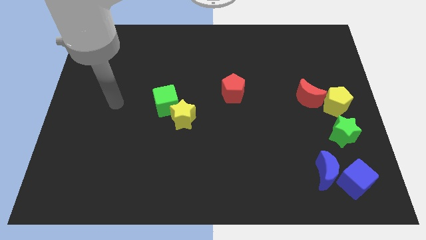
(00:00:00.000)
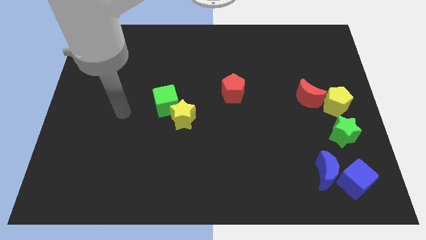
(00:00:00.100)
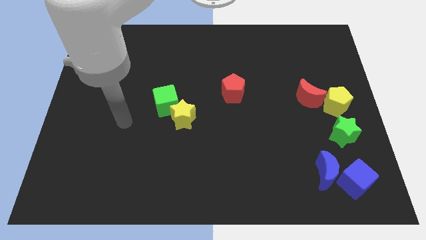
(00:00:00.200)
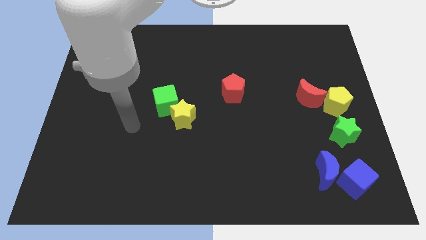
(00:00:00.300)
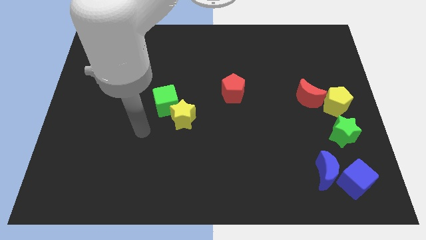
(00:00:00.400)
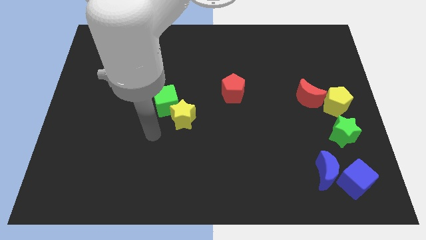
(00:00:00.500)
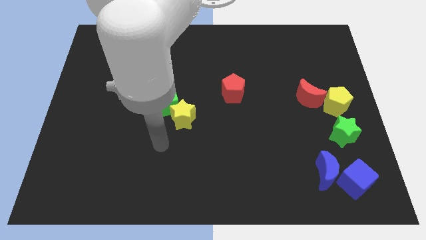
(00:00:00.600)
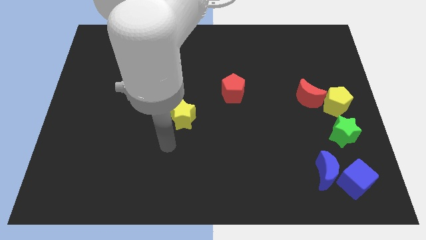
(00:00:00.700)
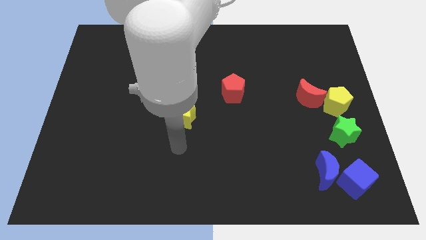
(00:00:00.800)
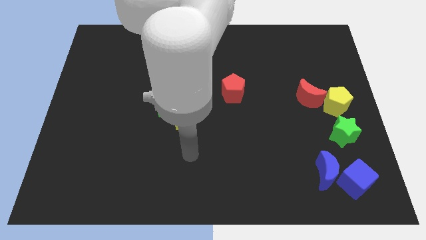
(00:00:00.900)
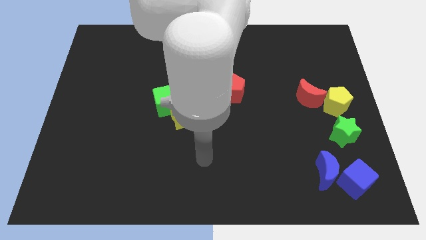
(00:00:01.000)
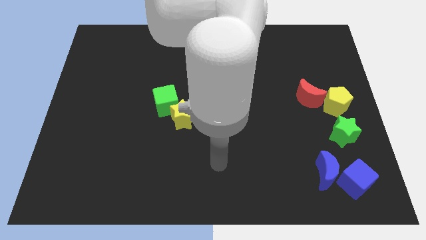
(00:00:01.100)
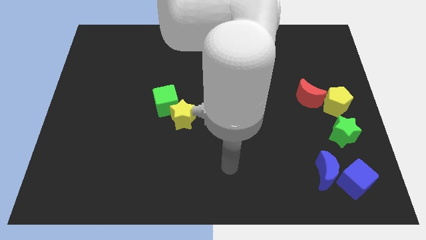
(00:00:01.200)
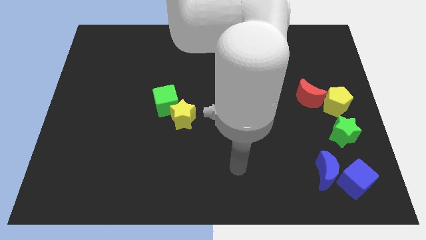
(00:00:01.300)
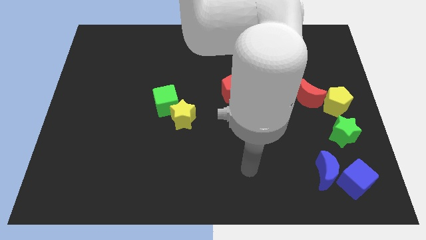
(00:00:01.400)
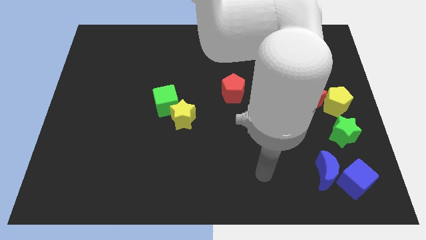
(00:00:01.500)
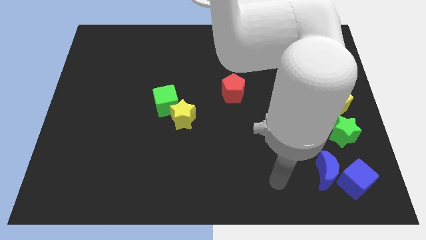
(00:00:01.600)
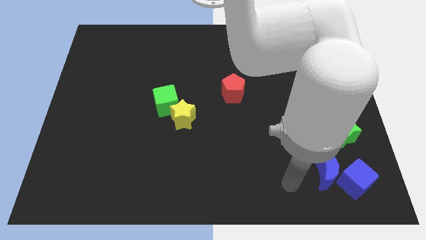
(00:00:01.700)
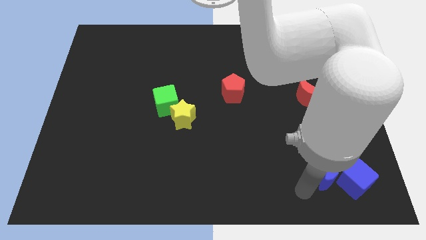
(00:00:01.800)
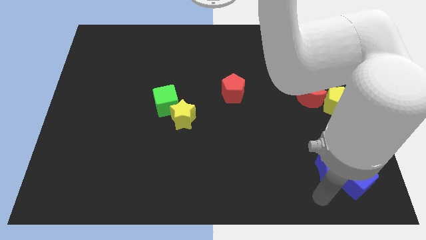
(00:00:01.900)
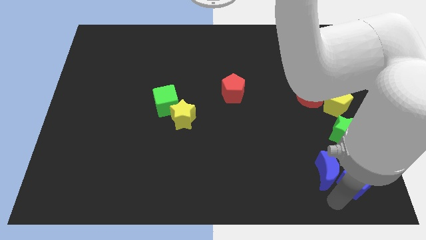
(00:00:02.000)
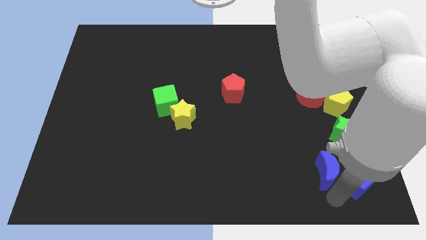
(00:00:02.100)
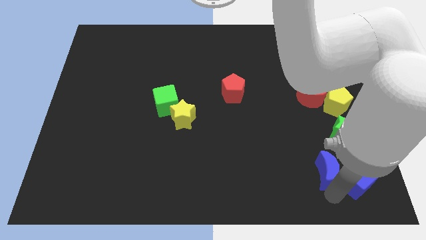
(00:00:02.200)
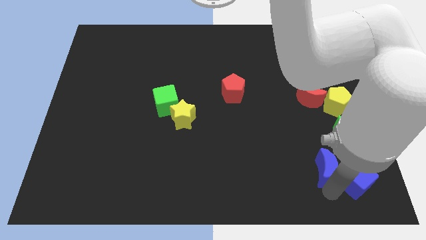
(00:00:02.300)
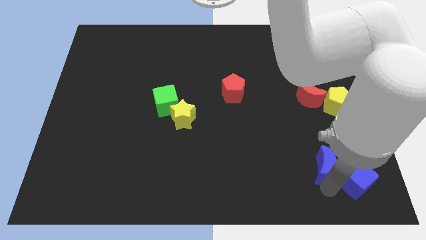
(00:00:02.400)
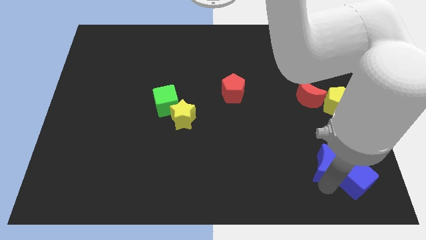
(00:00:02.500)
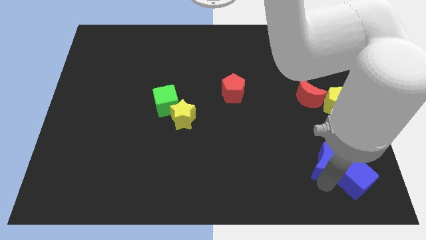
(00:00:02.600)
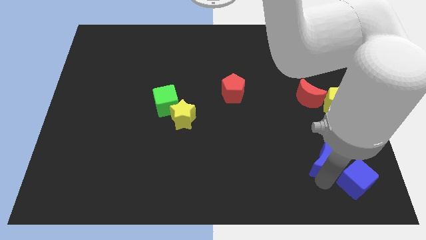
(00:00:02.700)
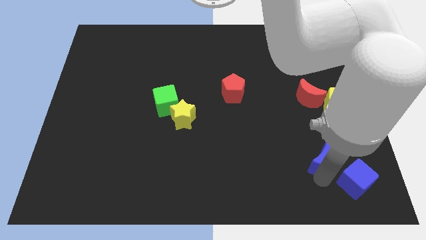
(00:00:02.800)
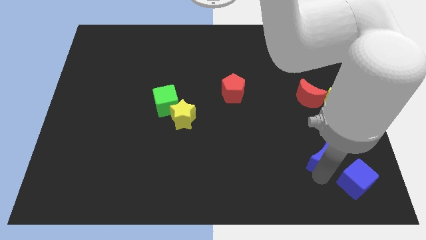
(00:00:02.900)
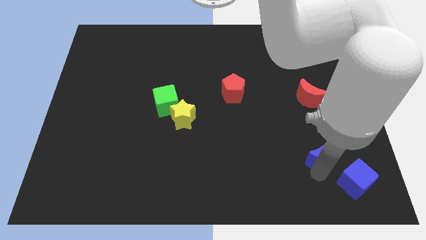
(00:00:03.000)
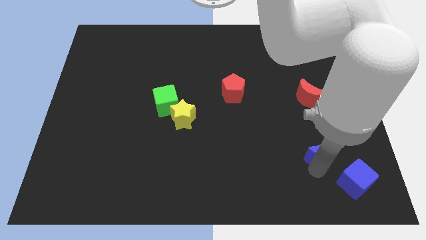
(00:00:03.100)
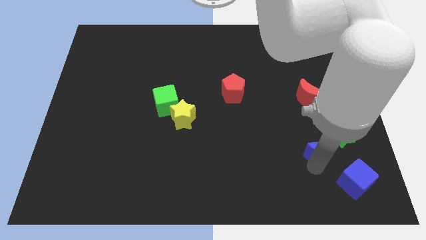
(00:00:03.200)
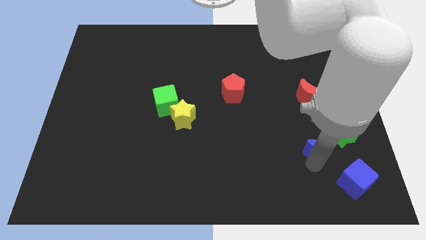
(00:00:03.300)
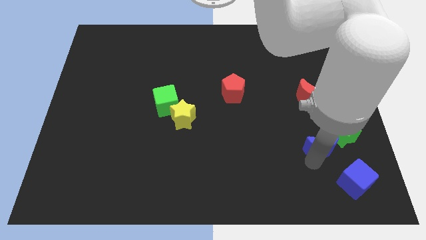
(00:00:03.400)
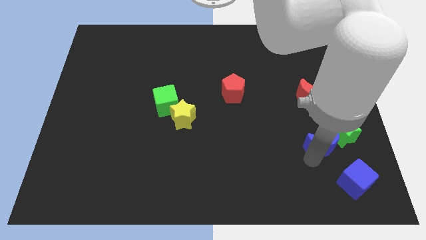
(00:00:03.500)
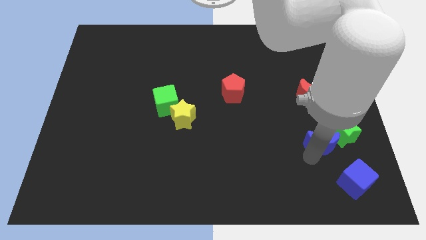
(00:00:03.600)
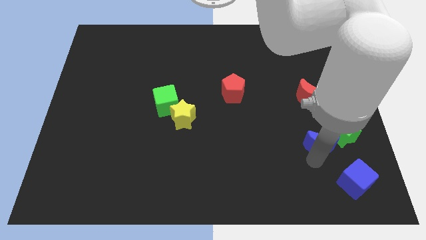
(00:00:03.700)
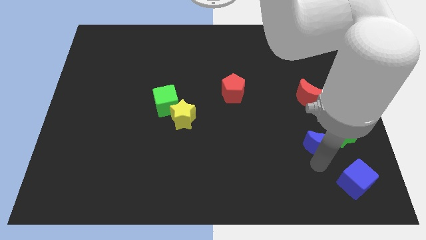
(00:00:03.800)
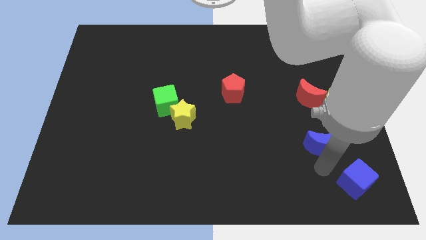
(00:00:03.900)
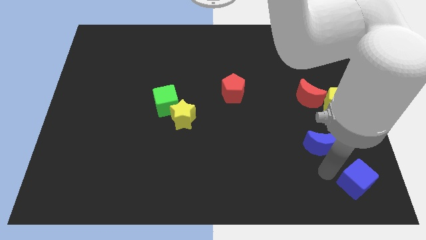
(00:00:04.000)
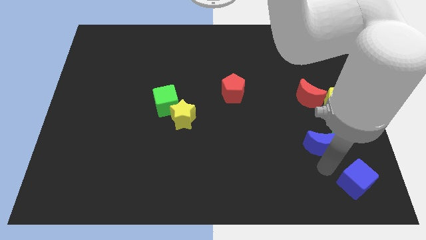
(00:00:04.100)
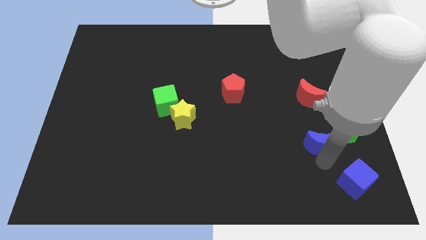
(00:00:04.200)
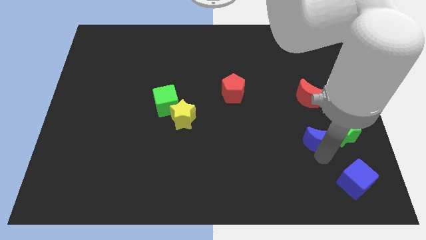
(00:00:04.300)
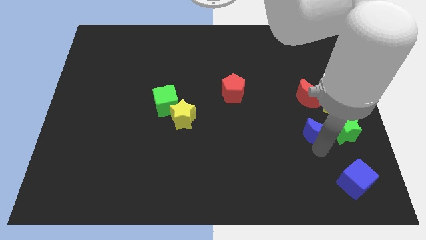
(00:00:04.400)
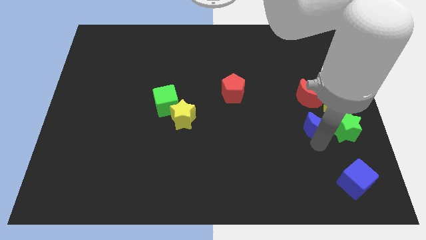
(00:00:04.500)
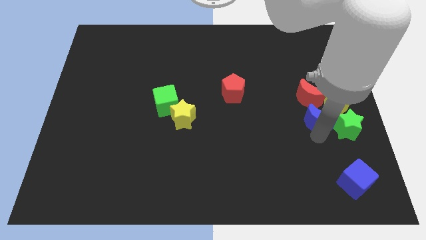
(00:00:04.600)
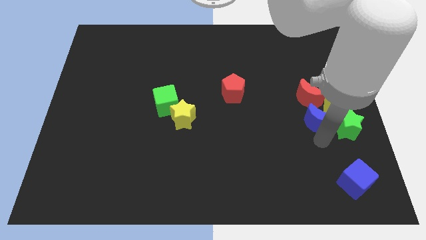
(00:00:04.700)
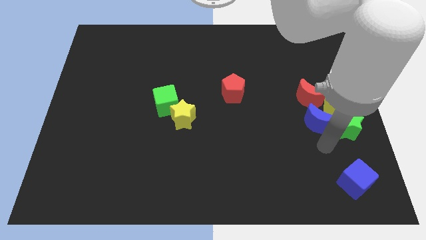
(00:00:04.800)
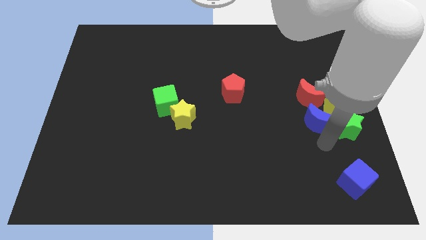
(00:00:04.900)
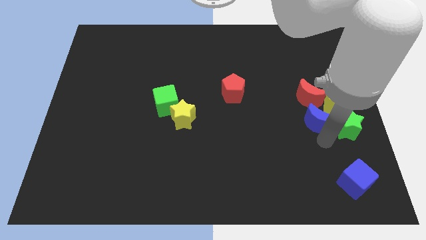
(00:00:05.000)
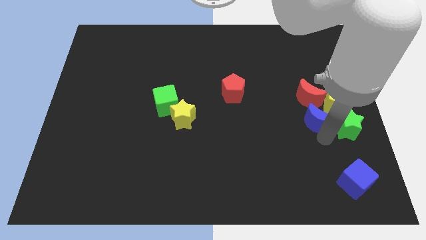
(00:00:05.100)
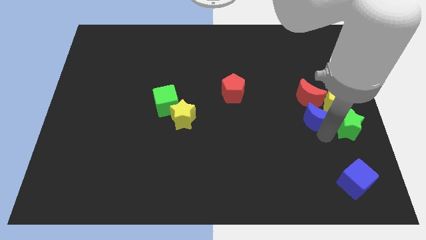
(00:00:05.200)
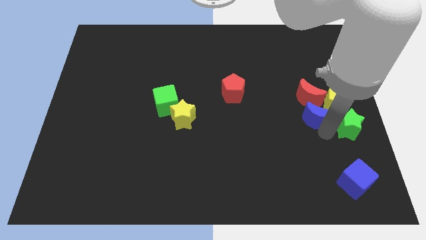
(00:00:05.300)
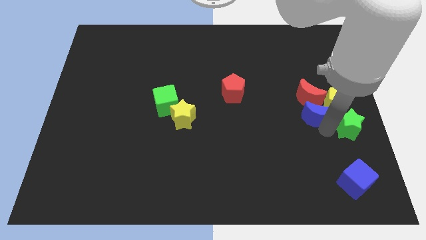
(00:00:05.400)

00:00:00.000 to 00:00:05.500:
slide the blue moon to the red moon
